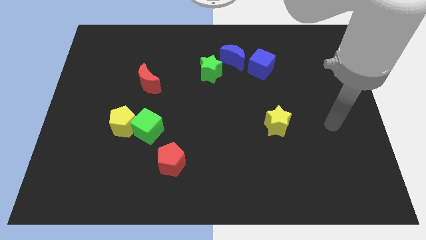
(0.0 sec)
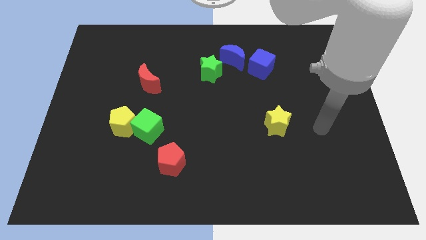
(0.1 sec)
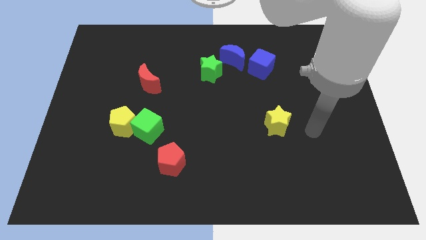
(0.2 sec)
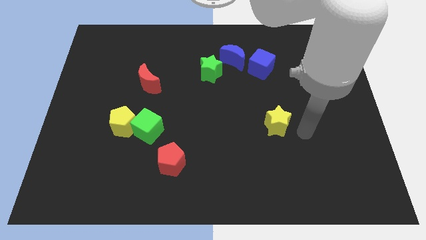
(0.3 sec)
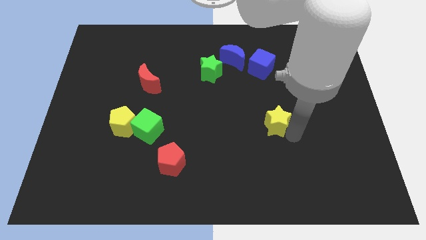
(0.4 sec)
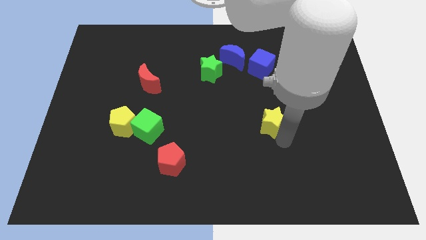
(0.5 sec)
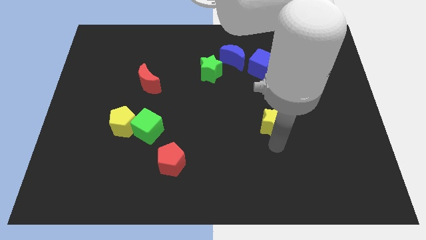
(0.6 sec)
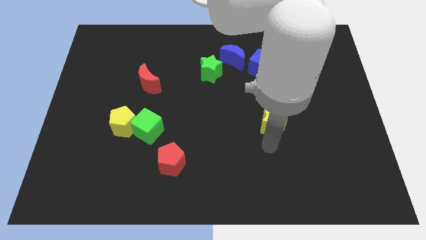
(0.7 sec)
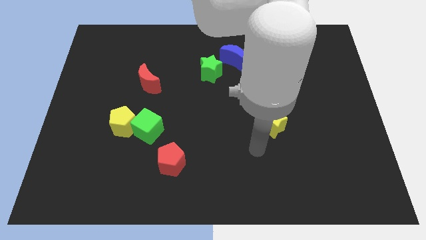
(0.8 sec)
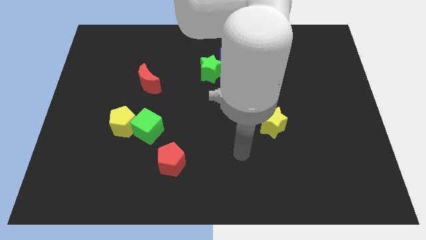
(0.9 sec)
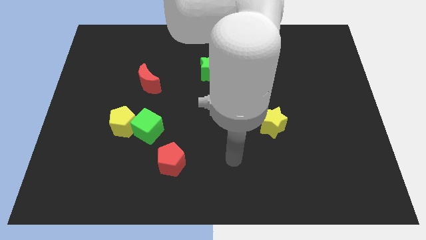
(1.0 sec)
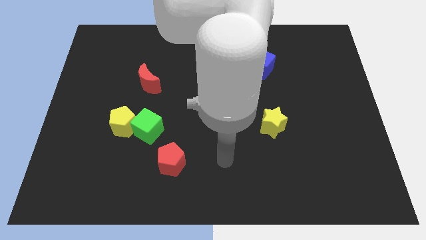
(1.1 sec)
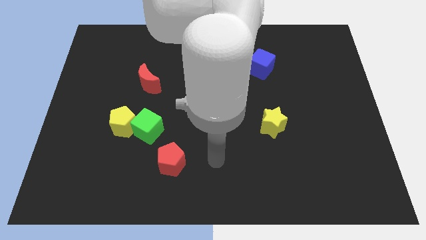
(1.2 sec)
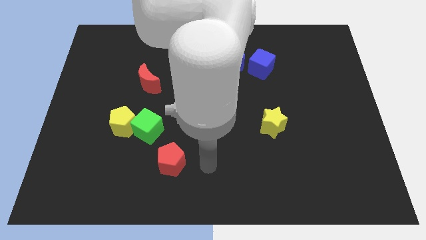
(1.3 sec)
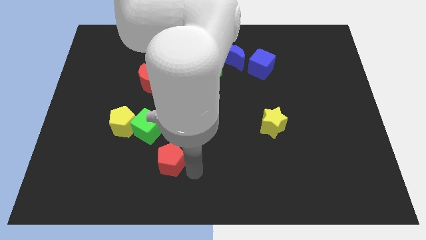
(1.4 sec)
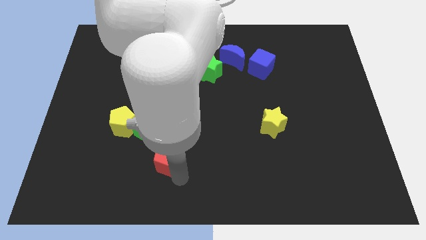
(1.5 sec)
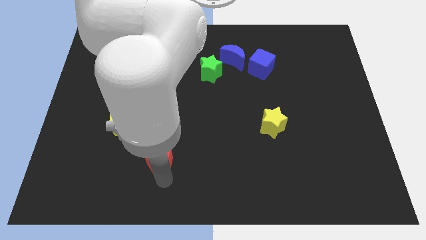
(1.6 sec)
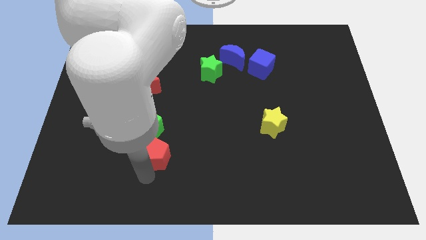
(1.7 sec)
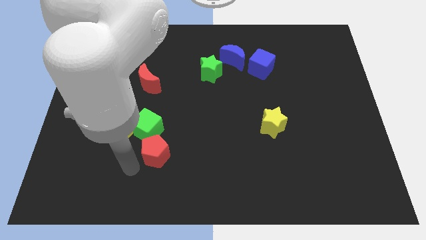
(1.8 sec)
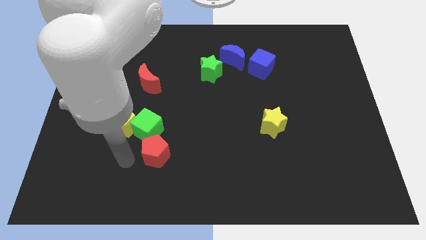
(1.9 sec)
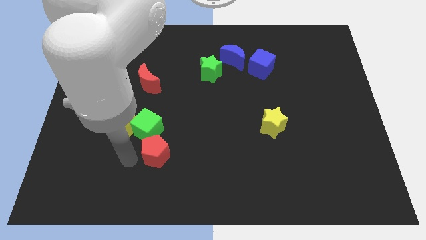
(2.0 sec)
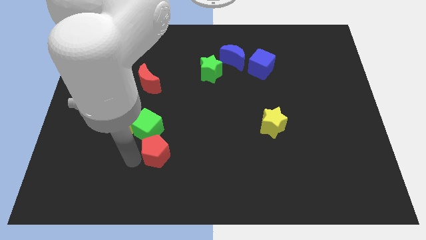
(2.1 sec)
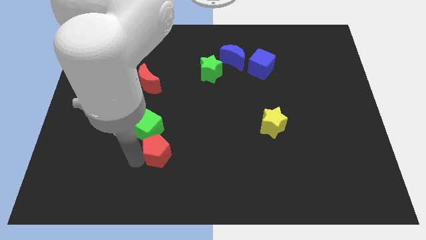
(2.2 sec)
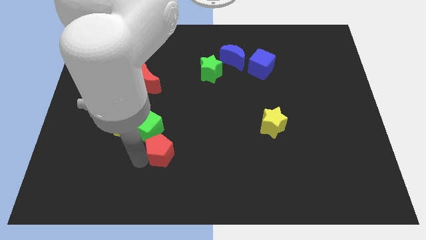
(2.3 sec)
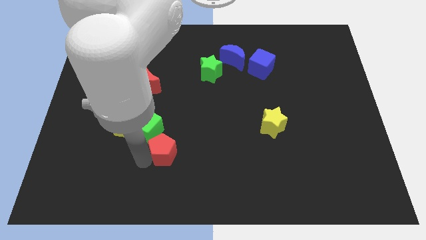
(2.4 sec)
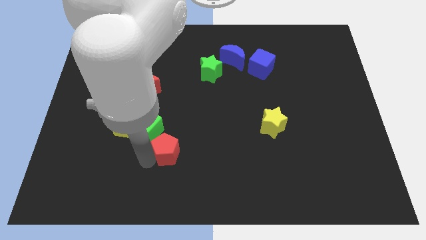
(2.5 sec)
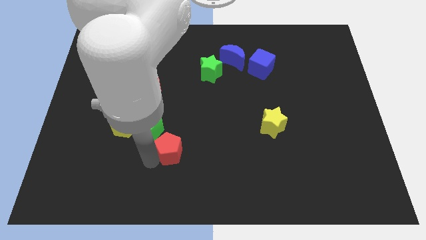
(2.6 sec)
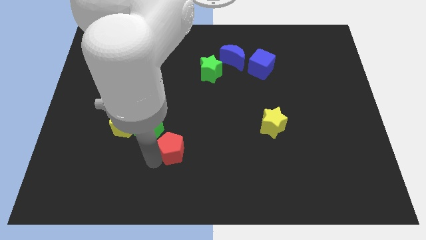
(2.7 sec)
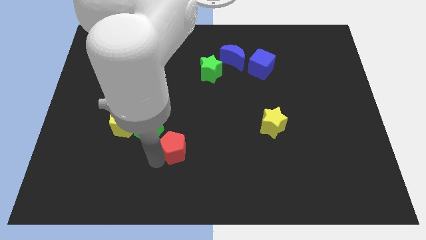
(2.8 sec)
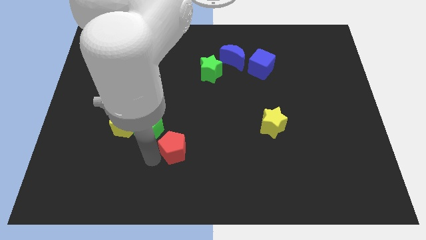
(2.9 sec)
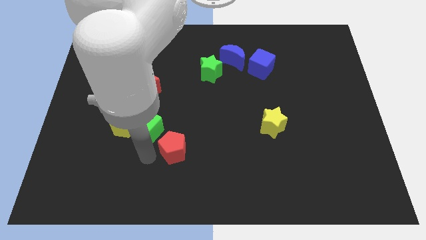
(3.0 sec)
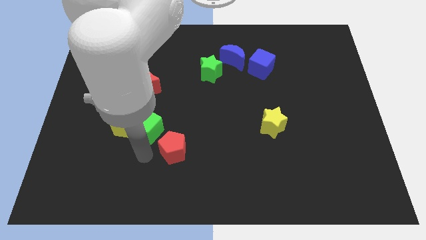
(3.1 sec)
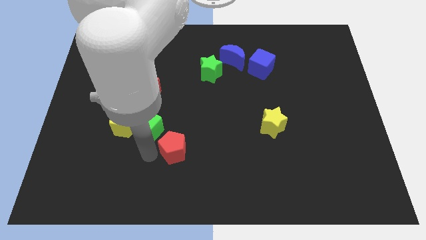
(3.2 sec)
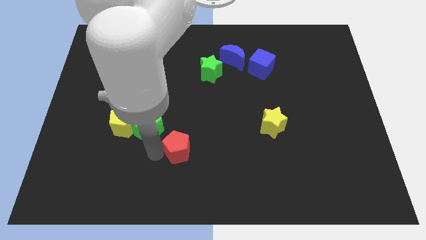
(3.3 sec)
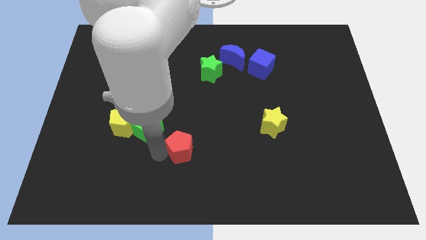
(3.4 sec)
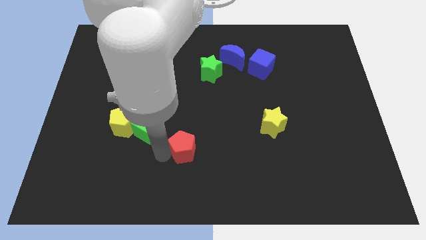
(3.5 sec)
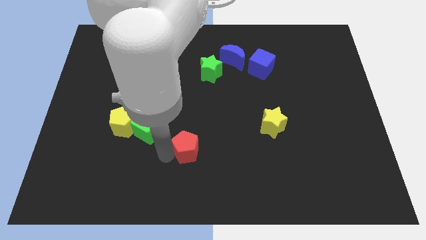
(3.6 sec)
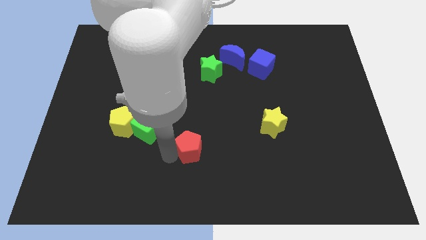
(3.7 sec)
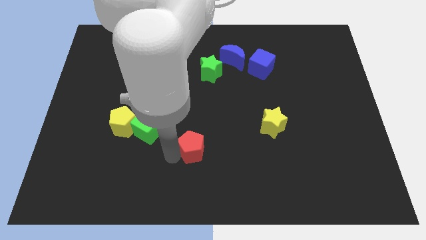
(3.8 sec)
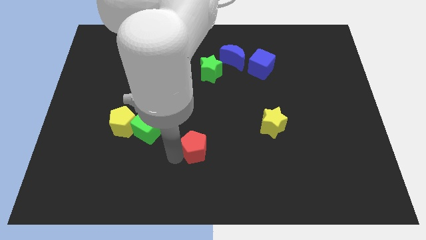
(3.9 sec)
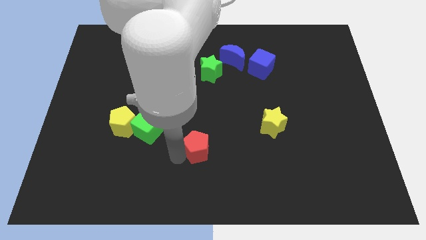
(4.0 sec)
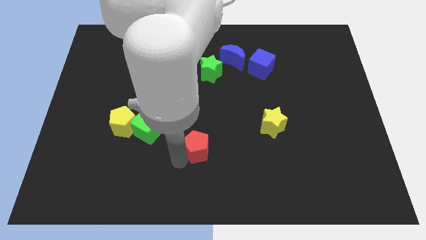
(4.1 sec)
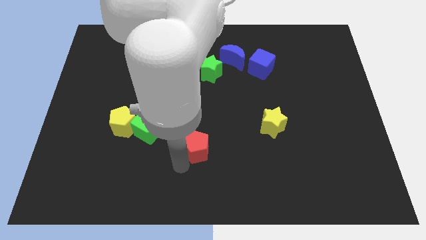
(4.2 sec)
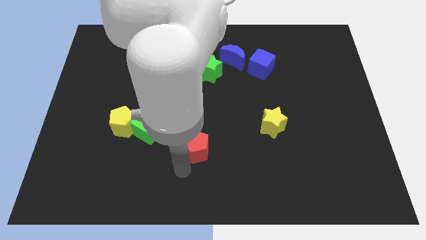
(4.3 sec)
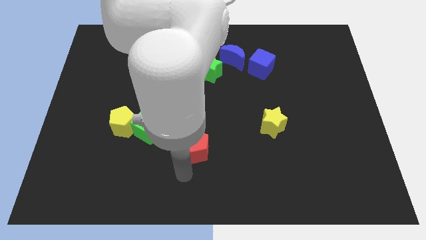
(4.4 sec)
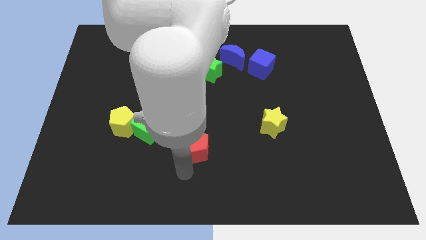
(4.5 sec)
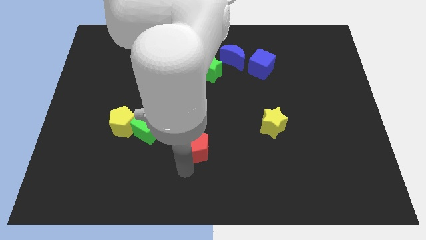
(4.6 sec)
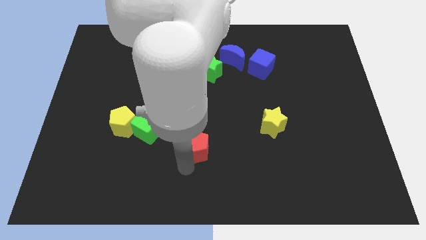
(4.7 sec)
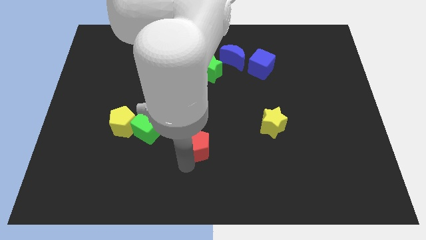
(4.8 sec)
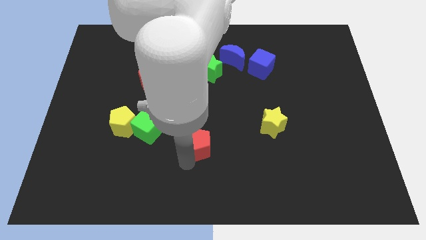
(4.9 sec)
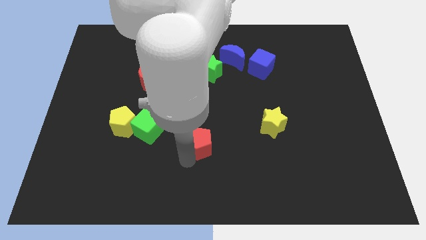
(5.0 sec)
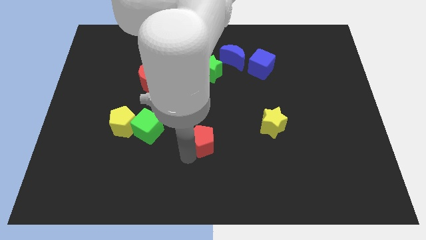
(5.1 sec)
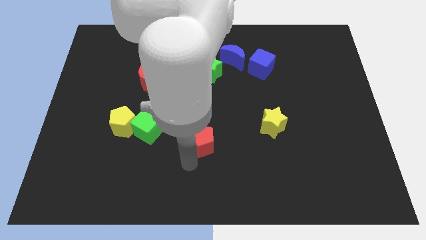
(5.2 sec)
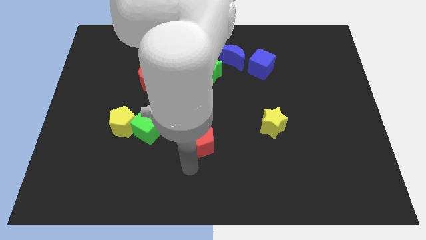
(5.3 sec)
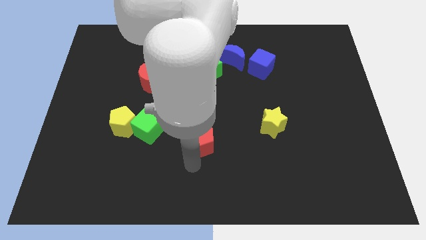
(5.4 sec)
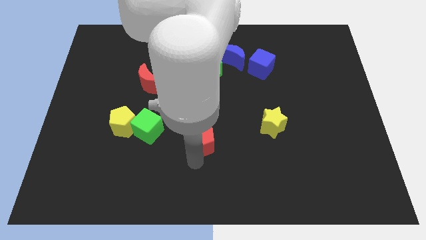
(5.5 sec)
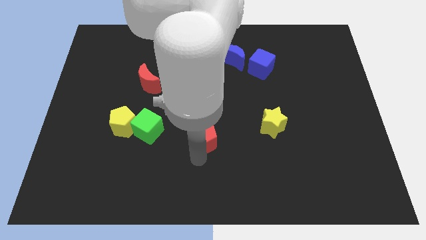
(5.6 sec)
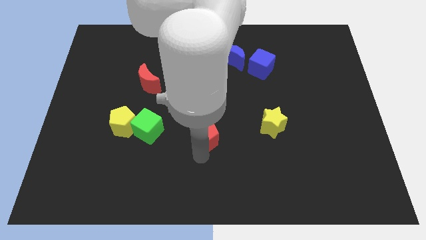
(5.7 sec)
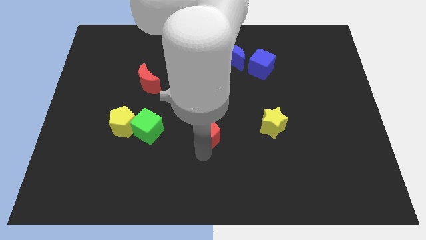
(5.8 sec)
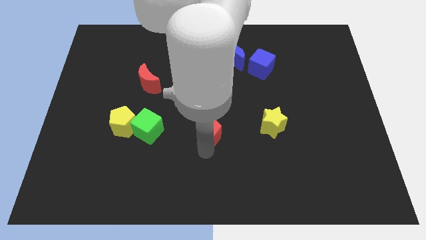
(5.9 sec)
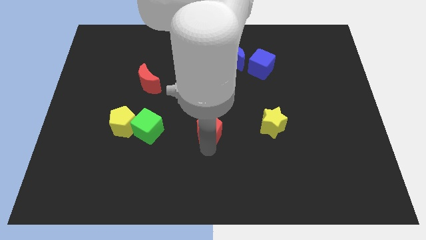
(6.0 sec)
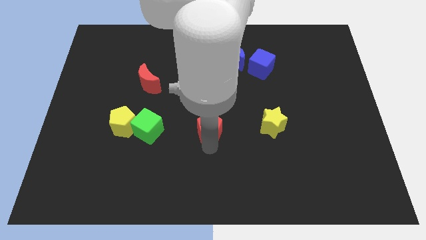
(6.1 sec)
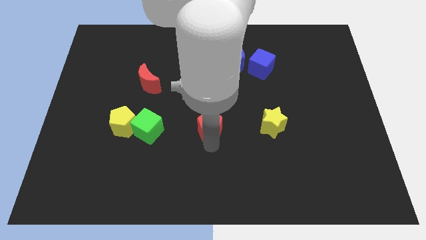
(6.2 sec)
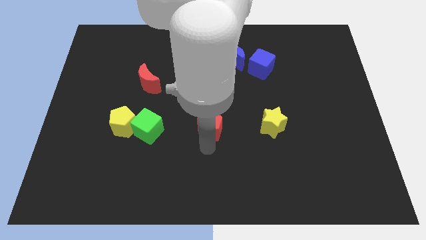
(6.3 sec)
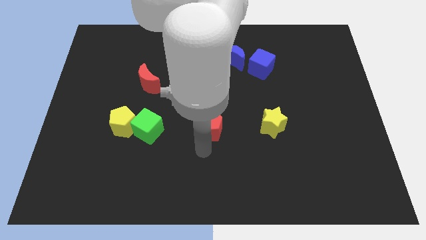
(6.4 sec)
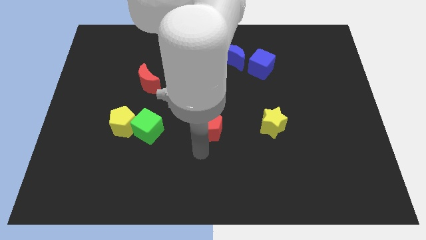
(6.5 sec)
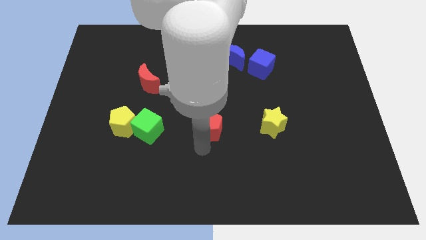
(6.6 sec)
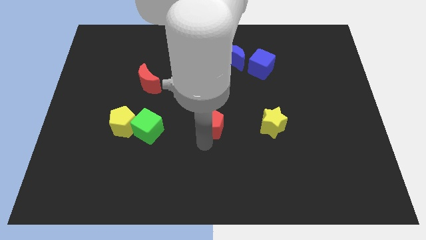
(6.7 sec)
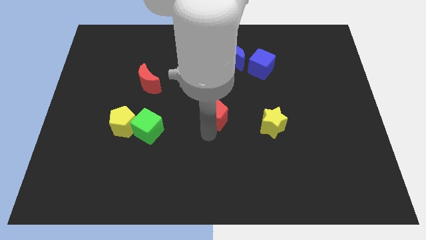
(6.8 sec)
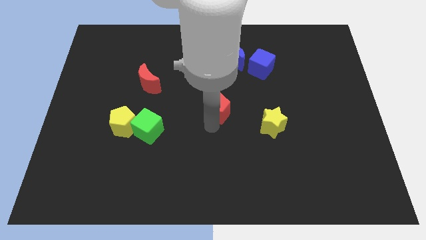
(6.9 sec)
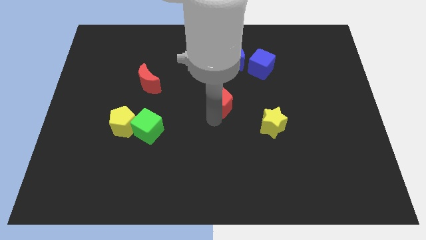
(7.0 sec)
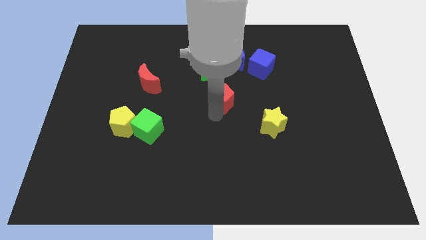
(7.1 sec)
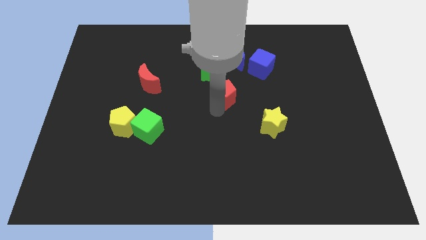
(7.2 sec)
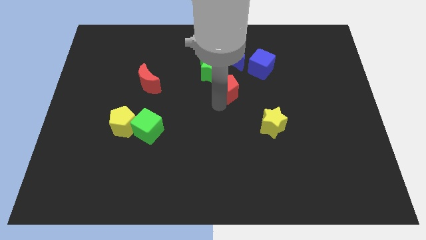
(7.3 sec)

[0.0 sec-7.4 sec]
move the red pentagon diagonally down and to the left of the blue cube
